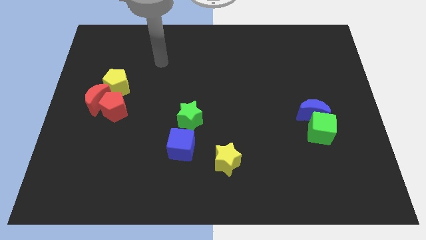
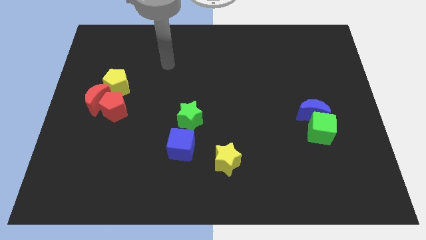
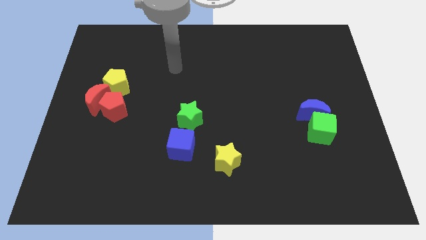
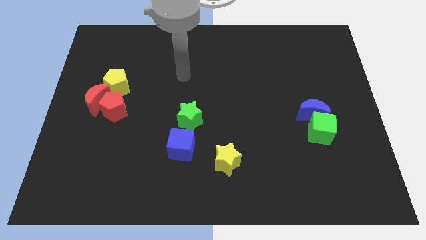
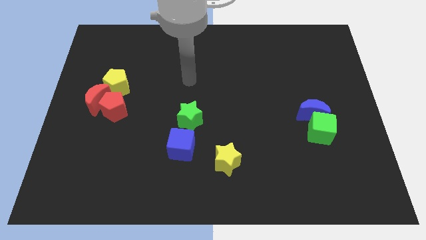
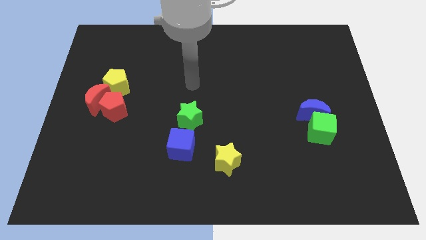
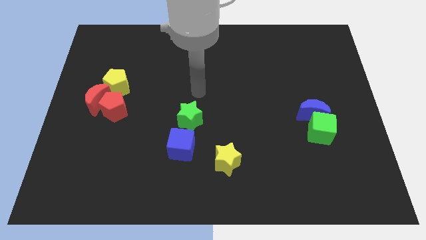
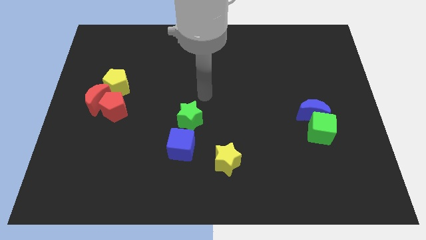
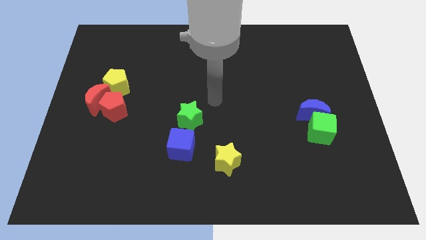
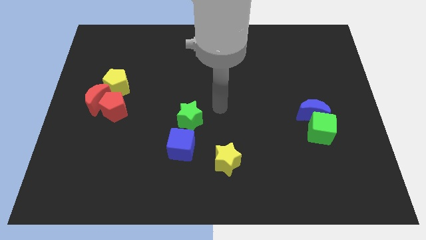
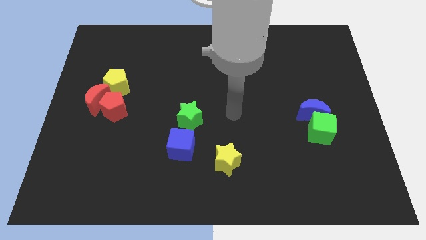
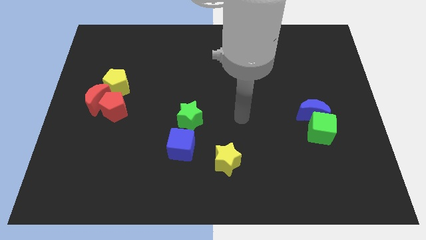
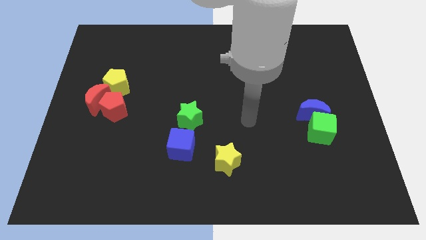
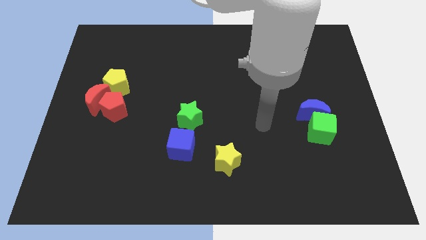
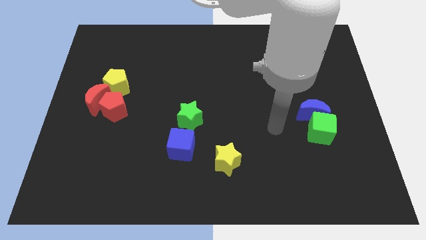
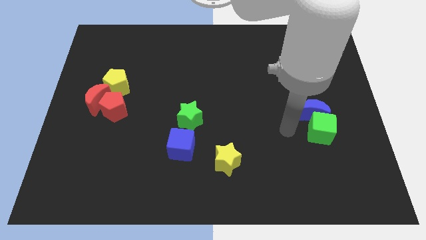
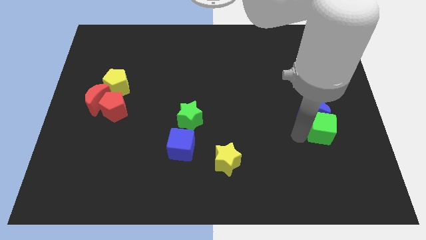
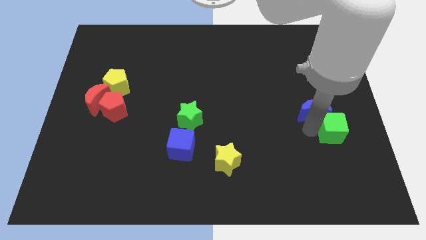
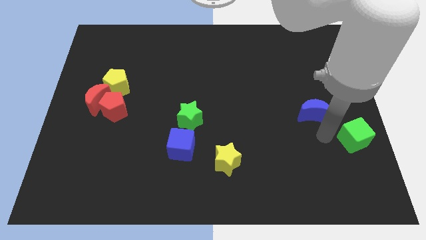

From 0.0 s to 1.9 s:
pull the blue moon apart from the green cube

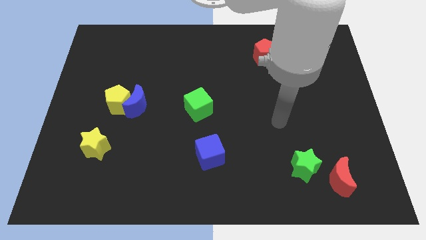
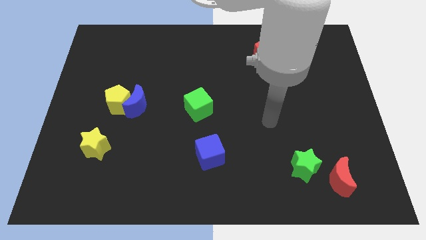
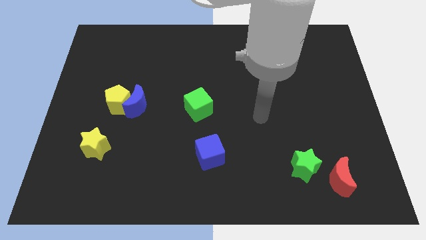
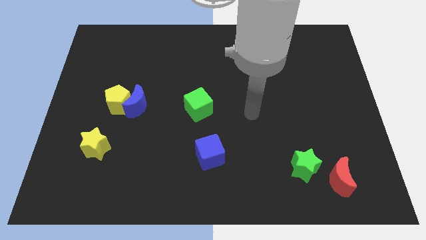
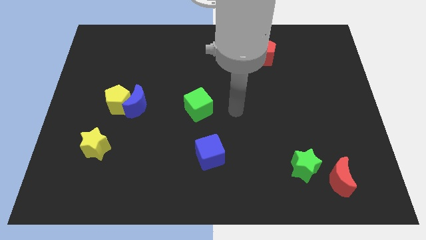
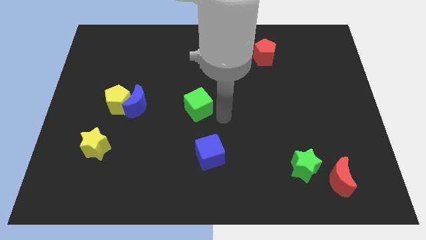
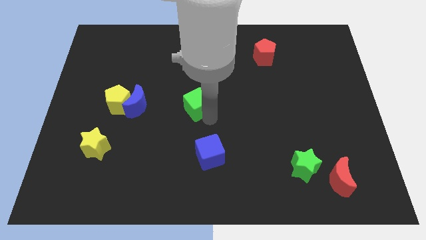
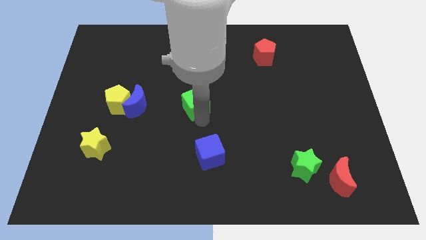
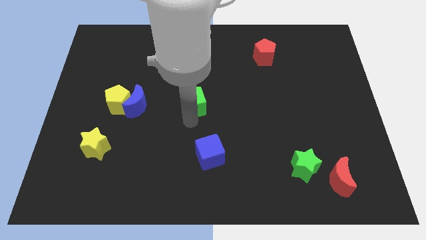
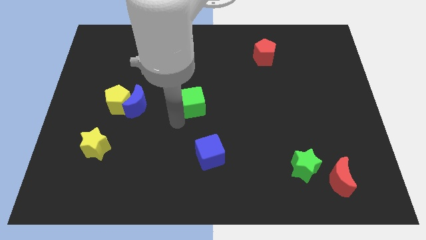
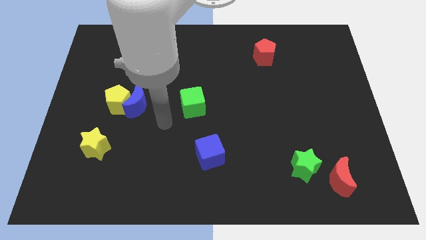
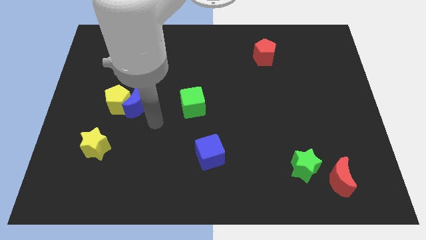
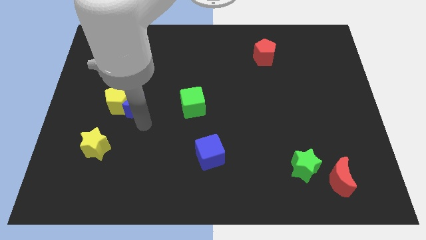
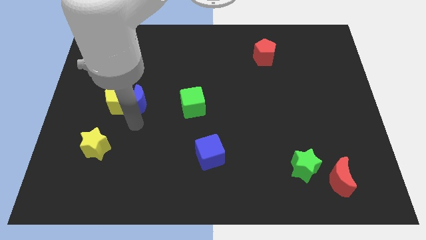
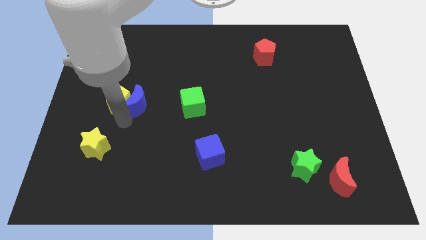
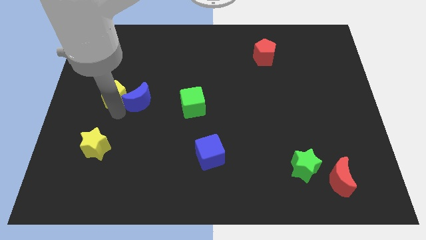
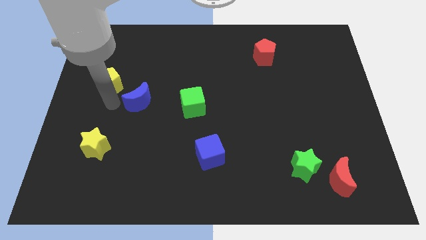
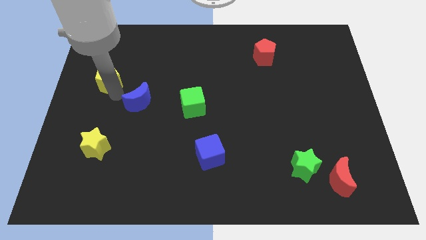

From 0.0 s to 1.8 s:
separate the blue moon from the yellow pentagon

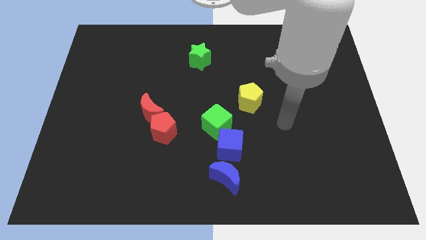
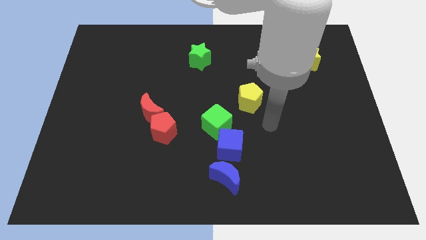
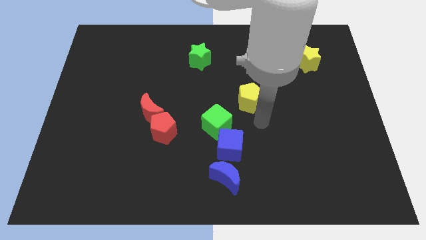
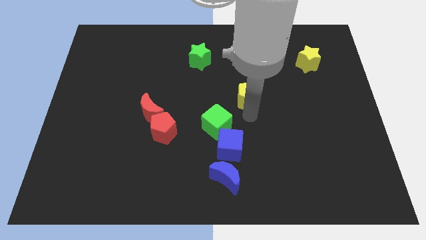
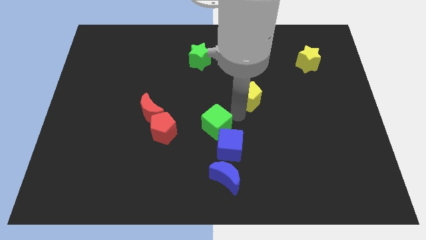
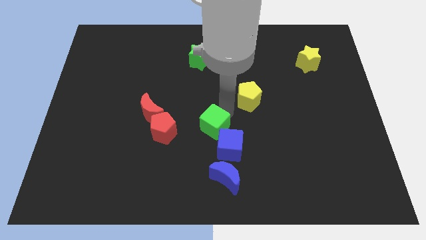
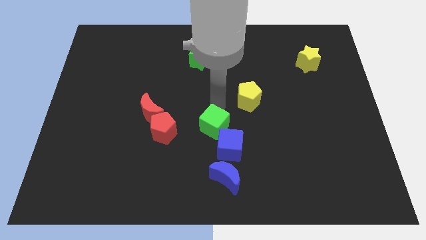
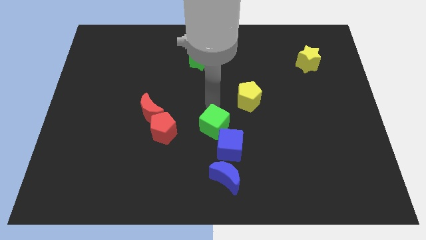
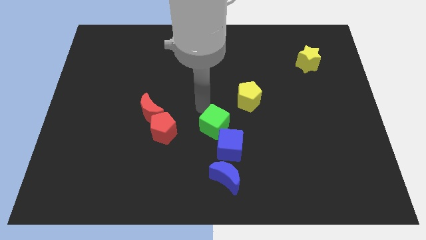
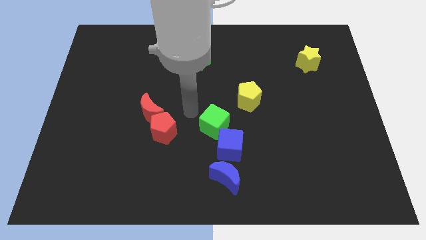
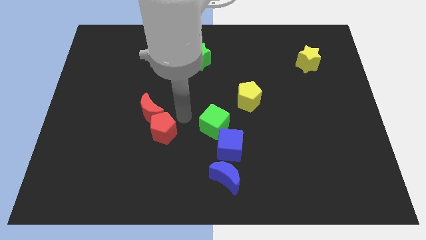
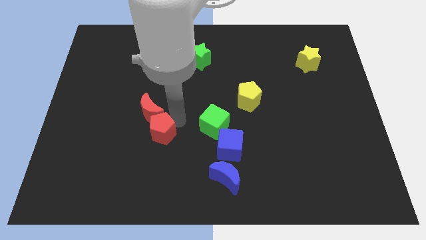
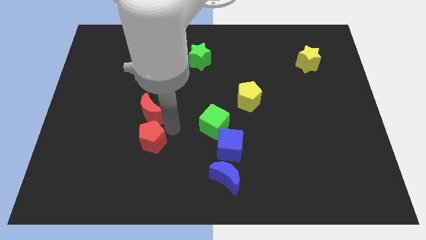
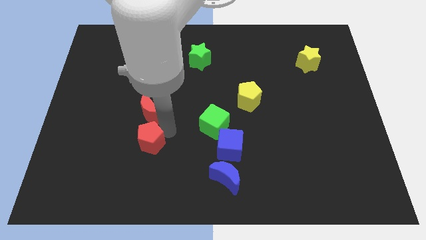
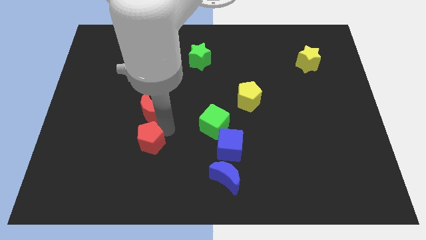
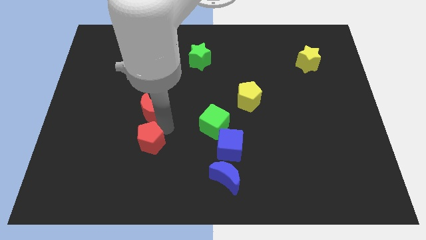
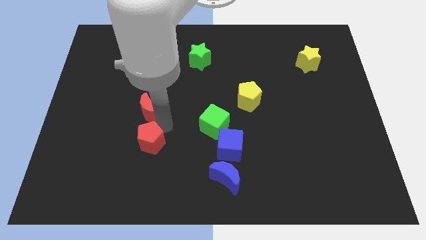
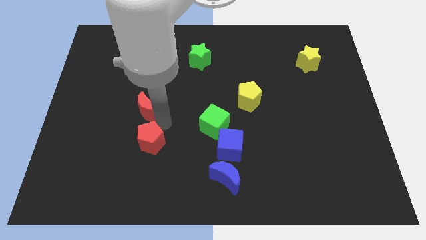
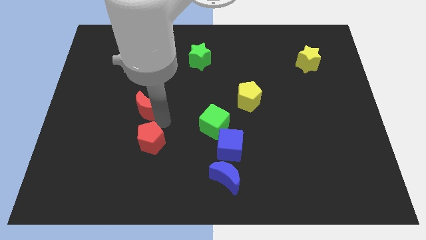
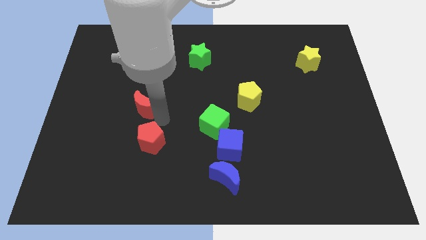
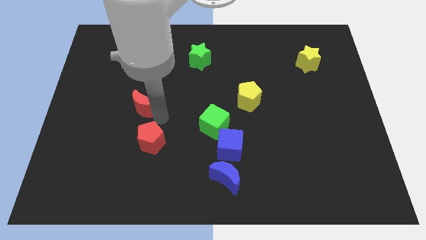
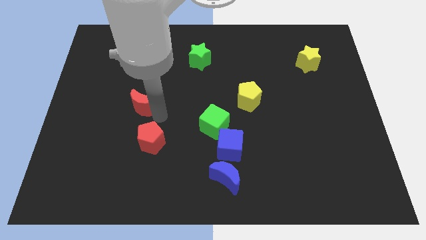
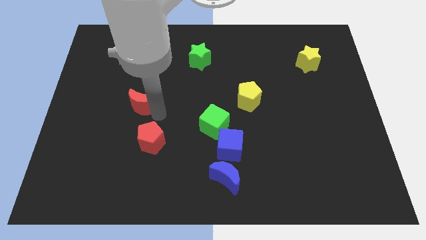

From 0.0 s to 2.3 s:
separate the red moon from the red pentagon

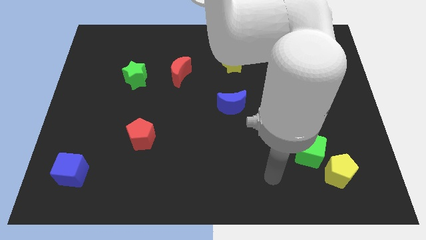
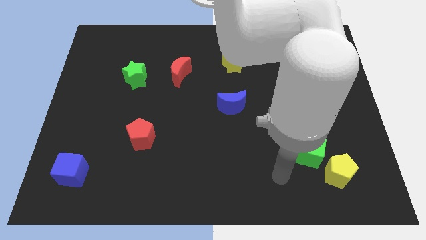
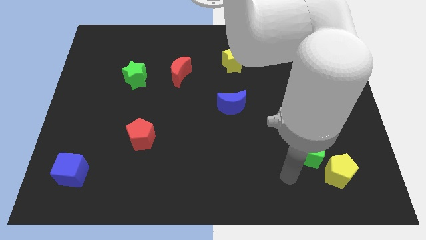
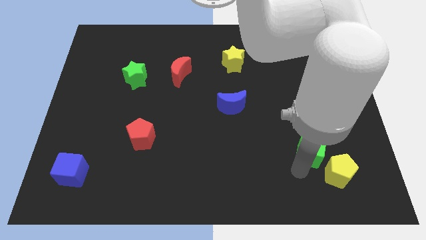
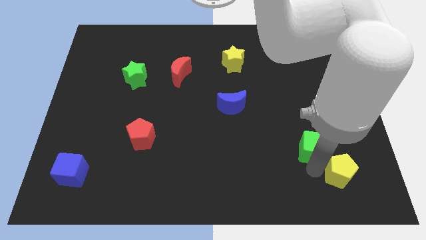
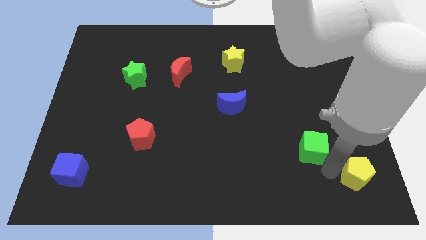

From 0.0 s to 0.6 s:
separate the green cube from the yellow pentagon

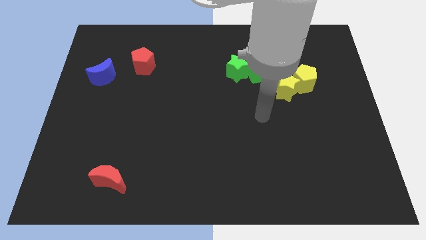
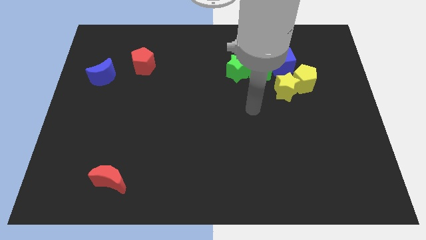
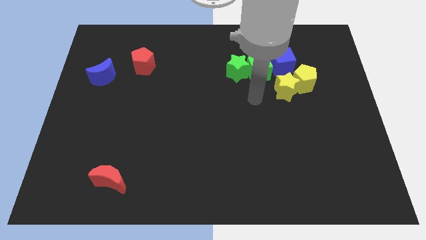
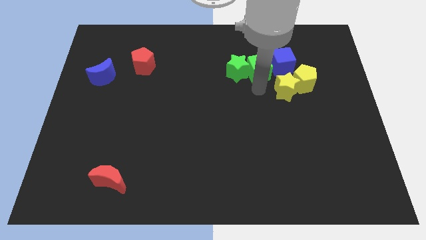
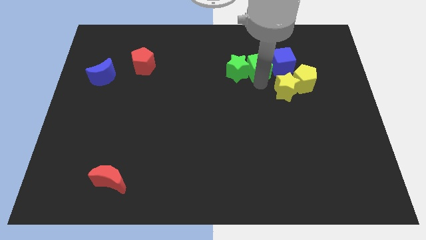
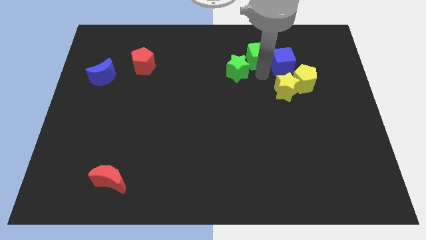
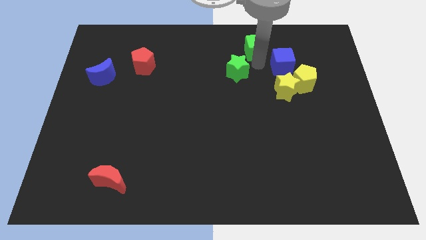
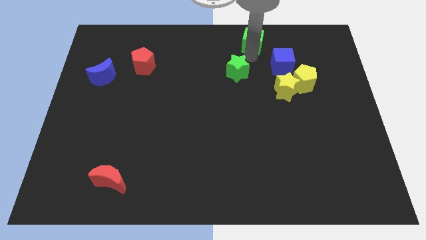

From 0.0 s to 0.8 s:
pull the green star apart from the green cube

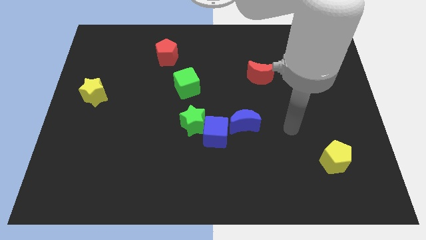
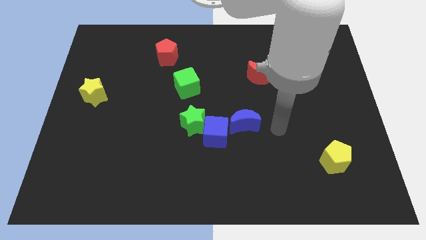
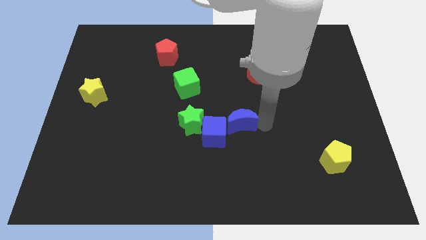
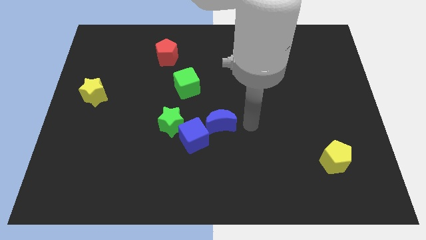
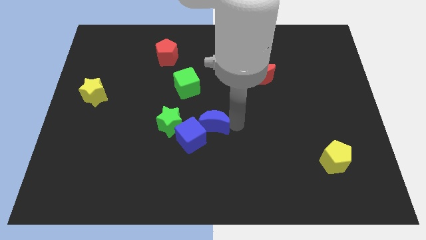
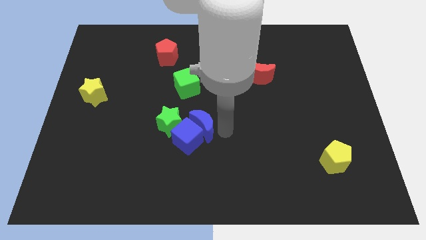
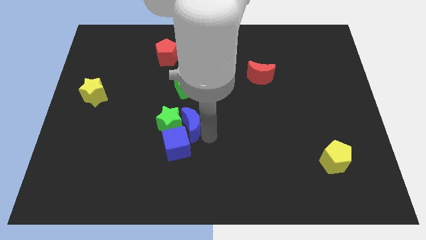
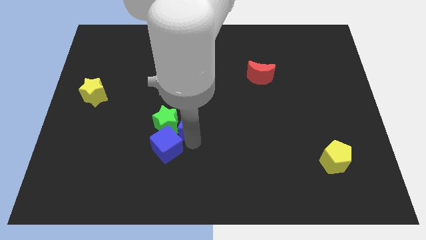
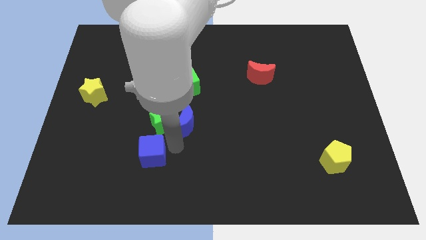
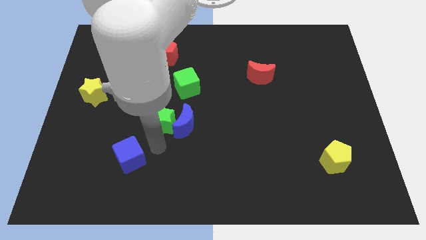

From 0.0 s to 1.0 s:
pull the green star apart from the blue cube

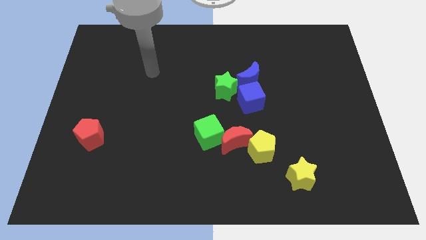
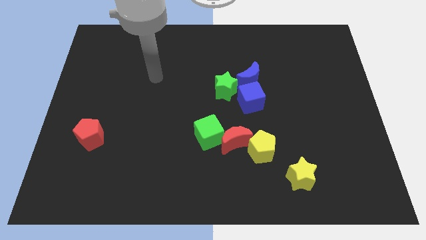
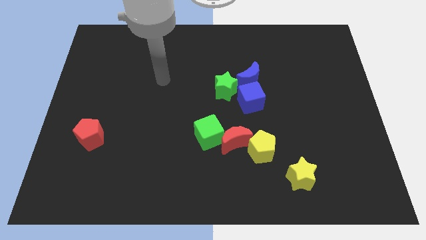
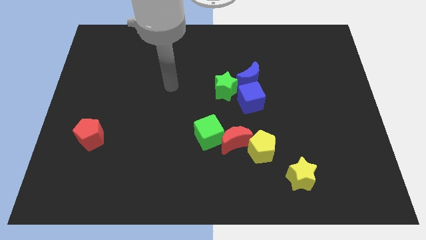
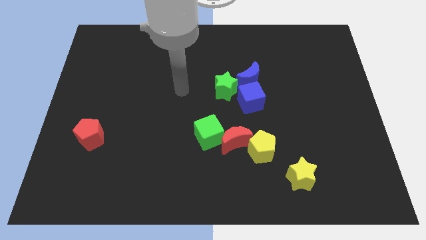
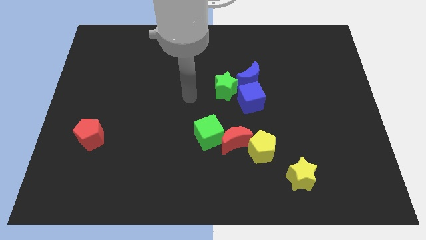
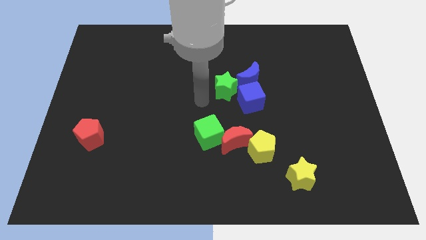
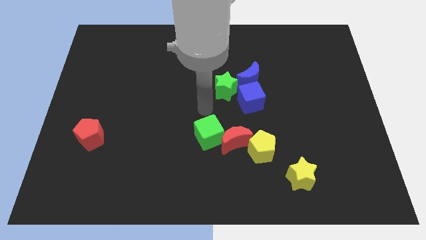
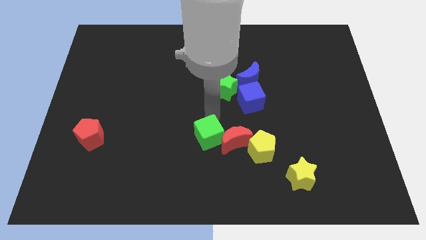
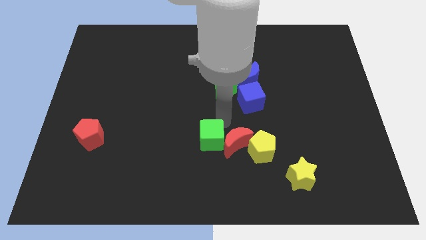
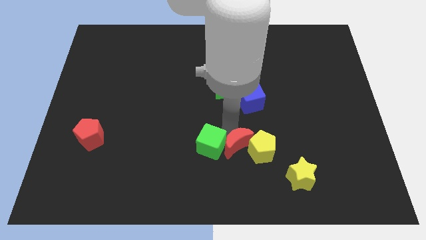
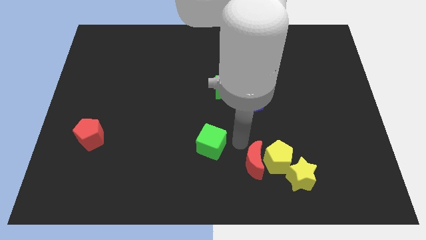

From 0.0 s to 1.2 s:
separate the green cube from the red moon
